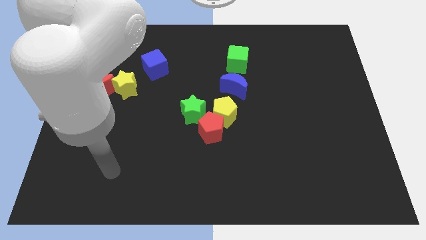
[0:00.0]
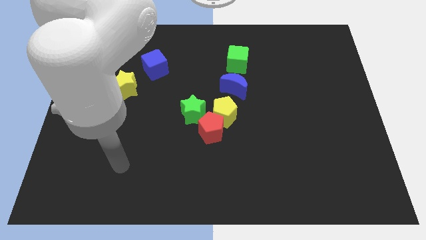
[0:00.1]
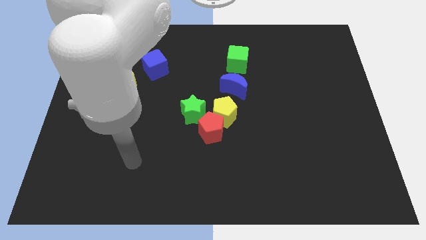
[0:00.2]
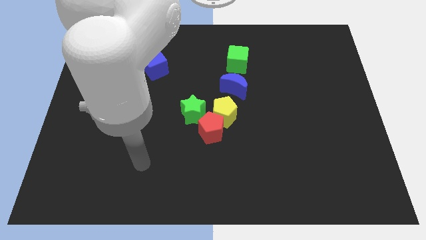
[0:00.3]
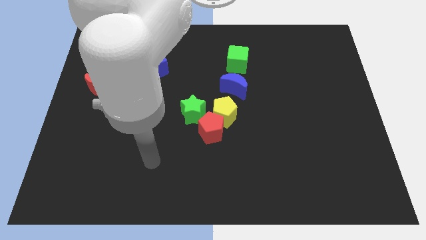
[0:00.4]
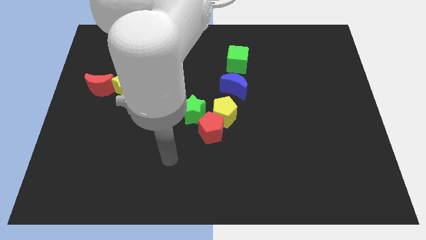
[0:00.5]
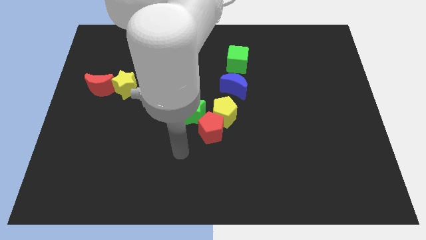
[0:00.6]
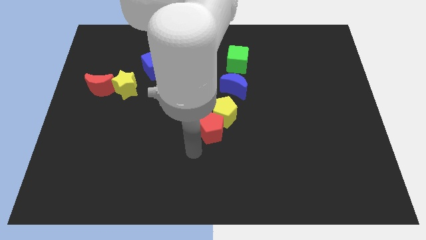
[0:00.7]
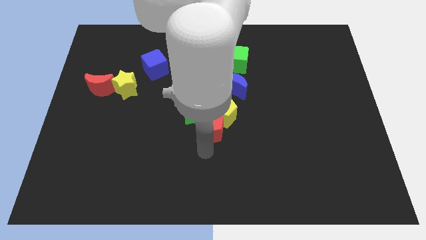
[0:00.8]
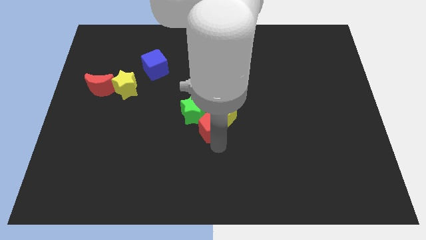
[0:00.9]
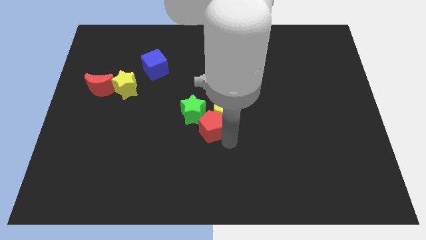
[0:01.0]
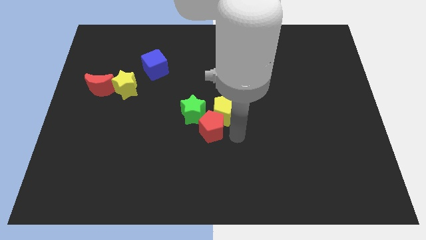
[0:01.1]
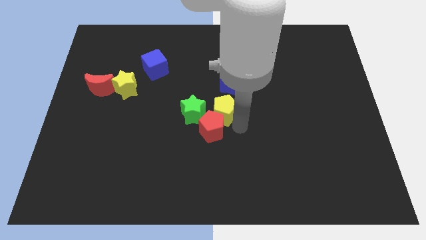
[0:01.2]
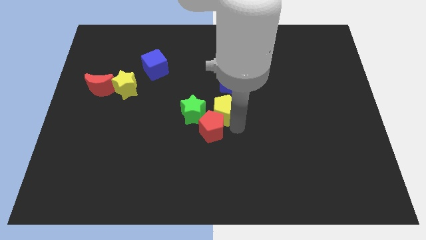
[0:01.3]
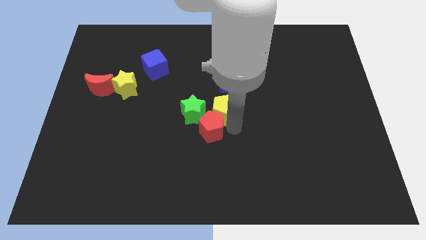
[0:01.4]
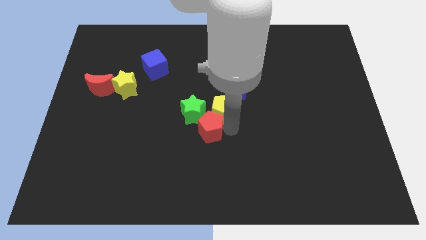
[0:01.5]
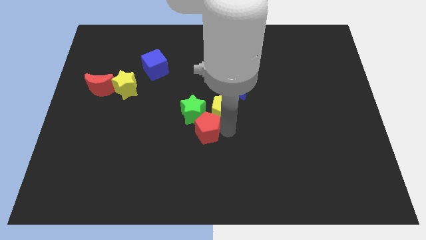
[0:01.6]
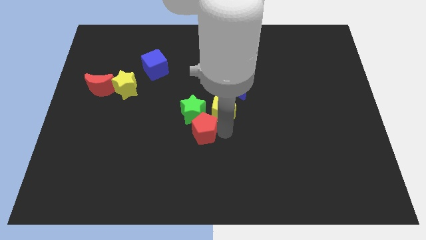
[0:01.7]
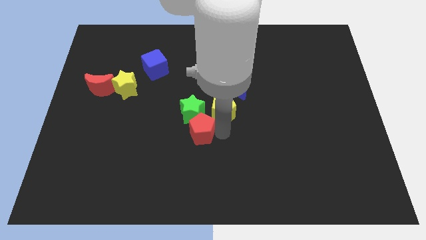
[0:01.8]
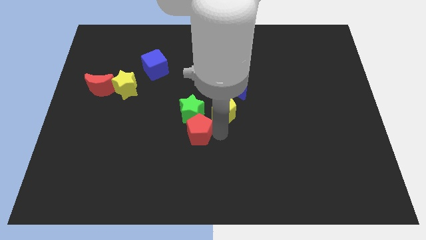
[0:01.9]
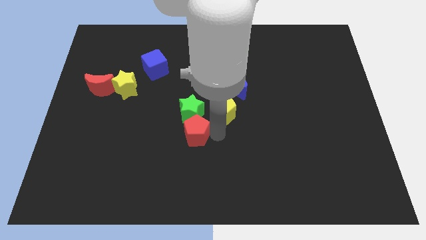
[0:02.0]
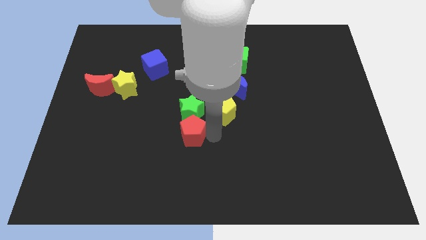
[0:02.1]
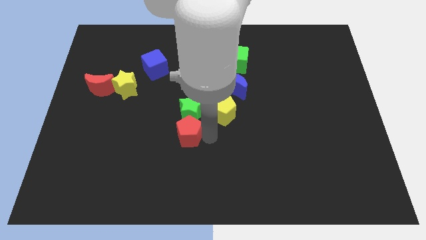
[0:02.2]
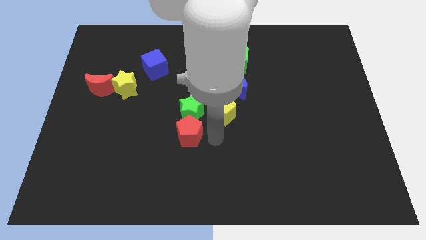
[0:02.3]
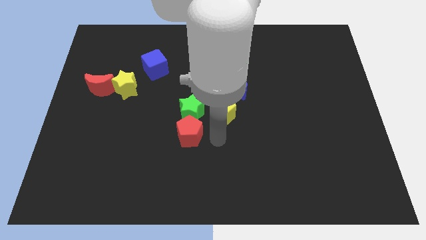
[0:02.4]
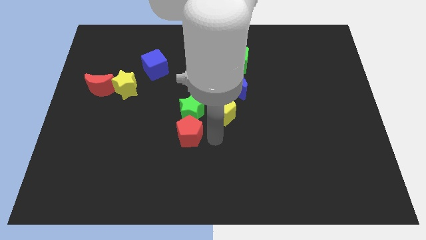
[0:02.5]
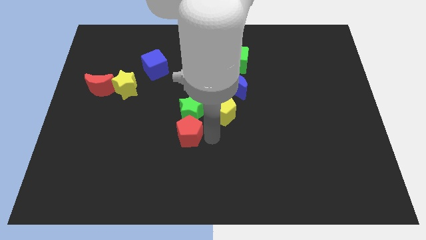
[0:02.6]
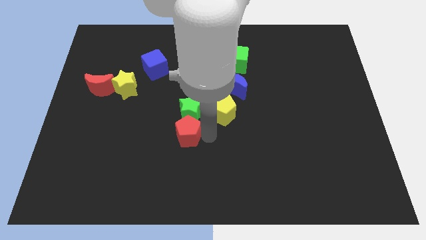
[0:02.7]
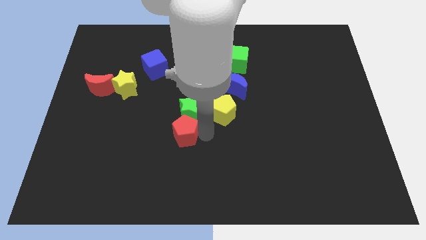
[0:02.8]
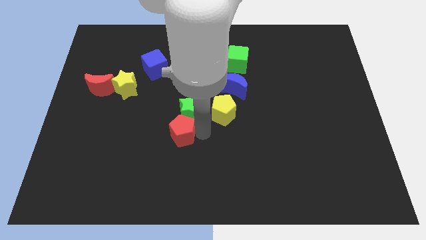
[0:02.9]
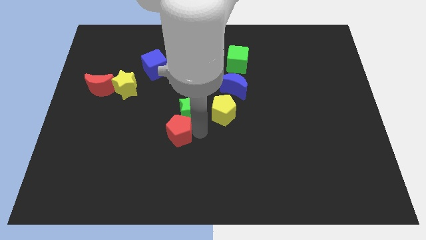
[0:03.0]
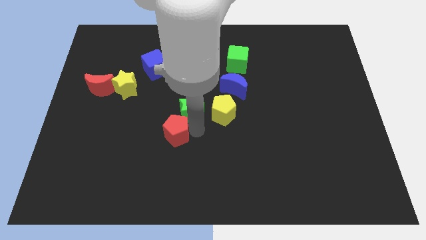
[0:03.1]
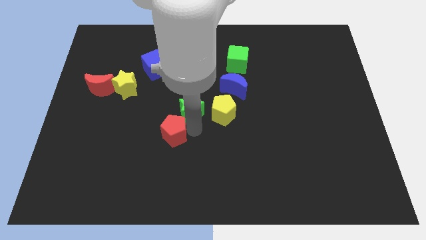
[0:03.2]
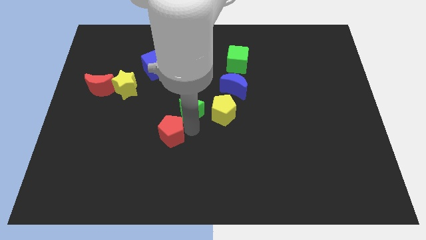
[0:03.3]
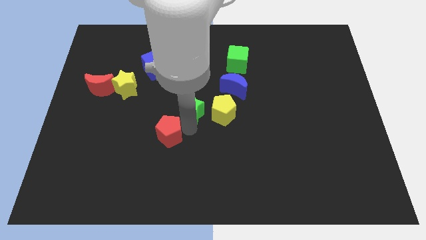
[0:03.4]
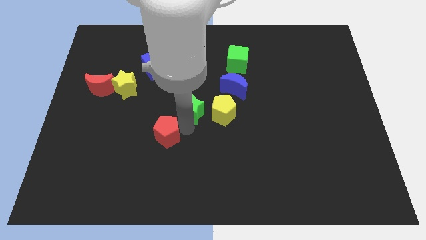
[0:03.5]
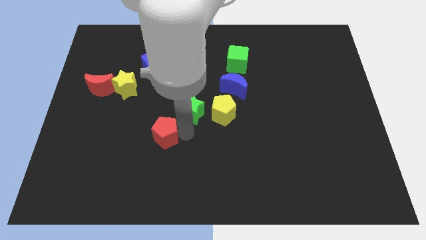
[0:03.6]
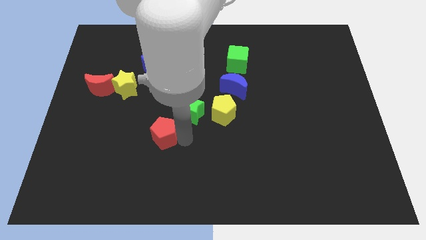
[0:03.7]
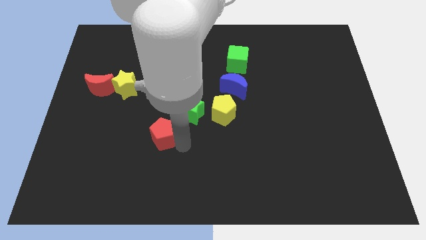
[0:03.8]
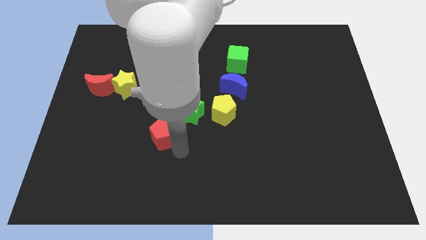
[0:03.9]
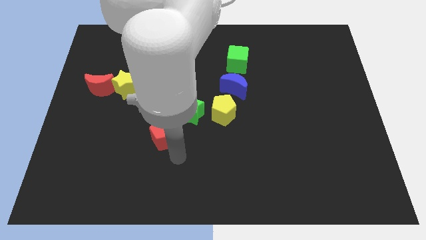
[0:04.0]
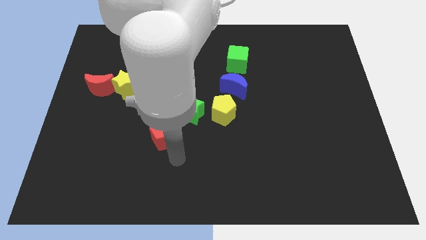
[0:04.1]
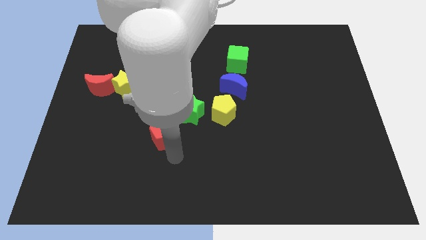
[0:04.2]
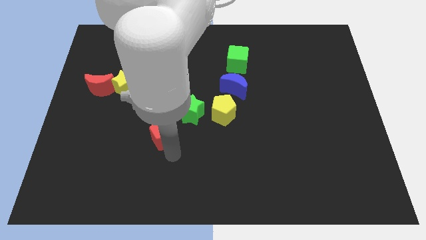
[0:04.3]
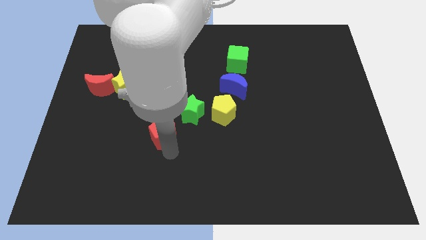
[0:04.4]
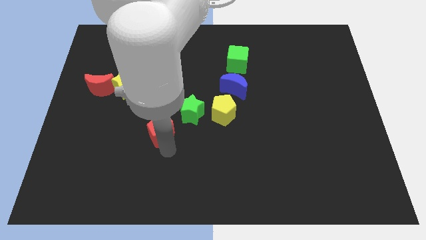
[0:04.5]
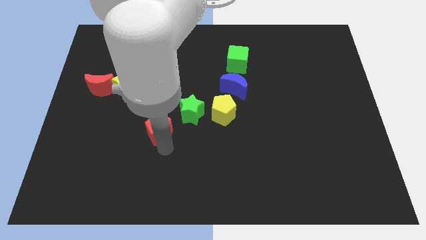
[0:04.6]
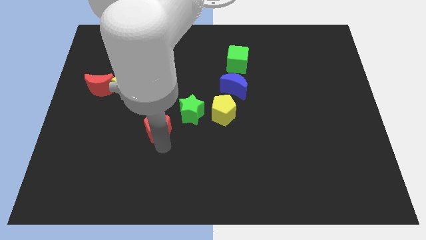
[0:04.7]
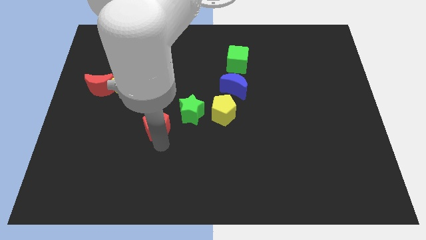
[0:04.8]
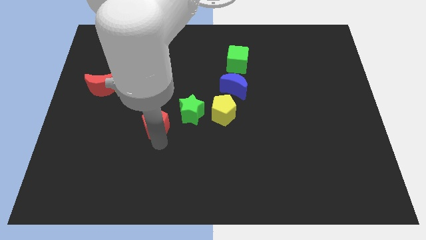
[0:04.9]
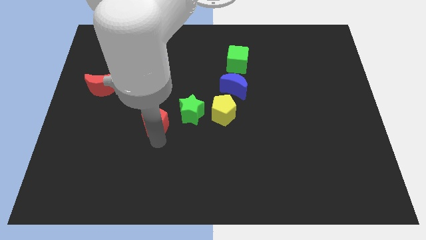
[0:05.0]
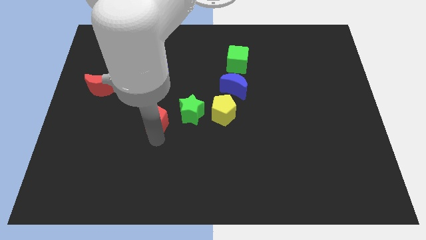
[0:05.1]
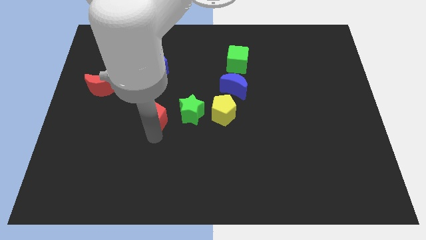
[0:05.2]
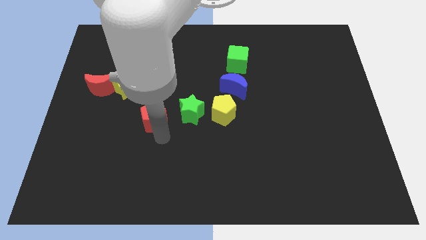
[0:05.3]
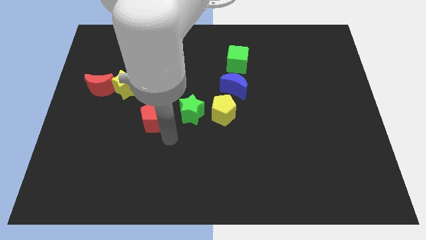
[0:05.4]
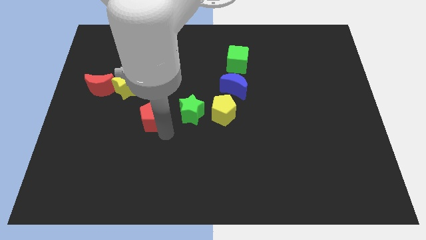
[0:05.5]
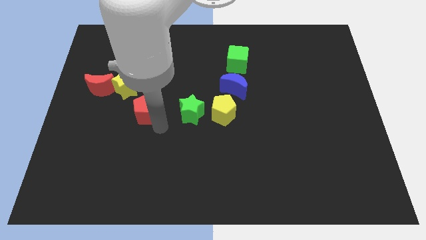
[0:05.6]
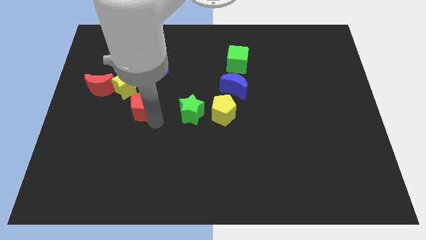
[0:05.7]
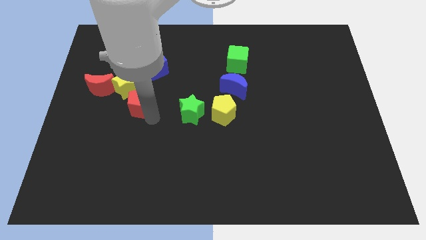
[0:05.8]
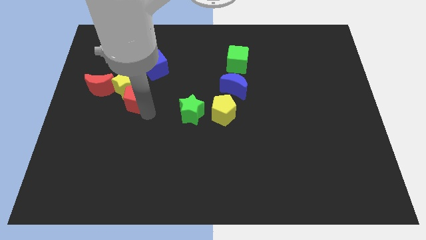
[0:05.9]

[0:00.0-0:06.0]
put the red pentagon close to the yellow star

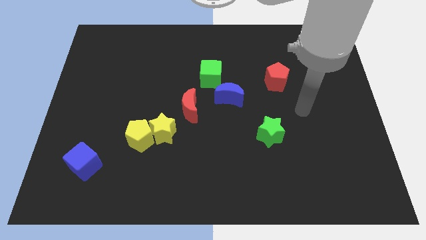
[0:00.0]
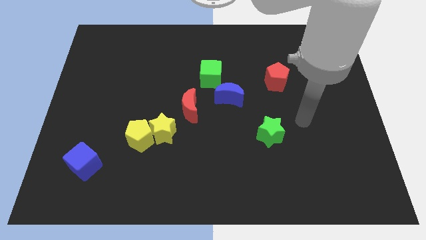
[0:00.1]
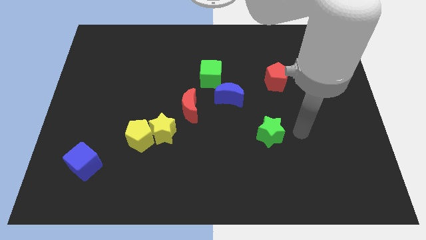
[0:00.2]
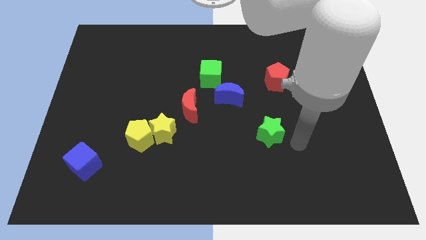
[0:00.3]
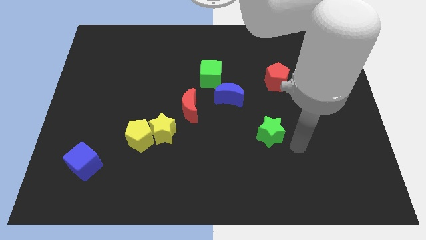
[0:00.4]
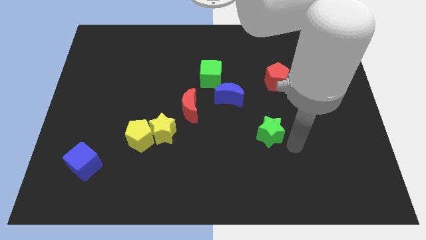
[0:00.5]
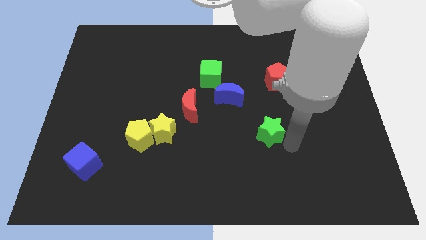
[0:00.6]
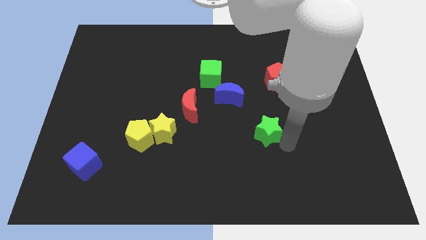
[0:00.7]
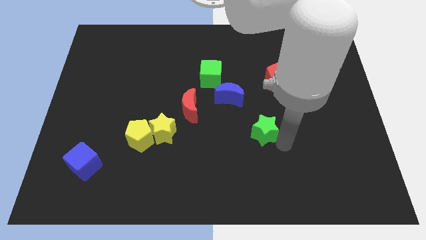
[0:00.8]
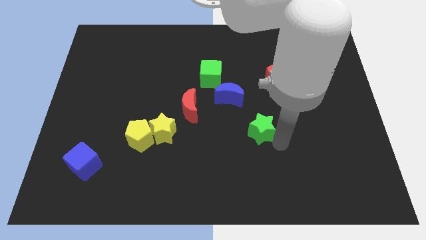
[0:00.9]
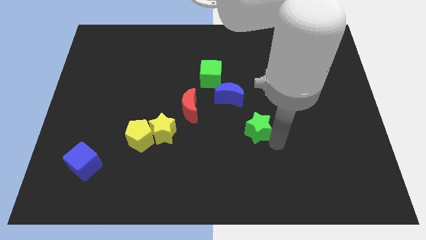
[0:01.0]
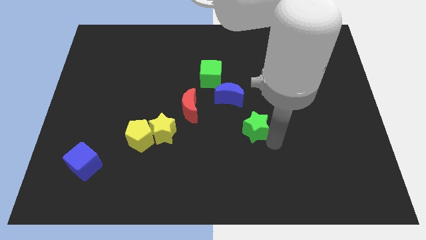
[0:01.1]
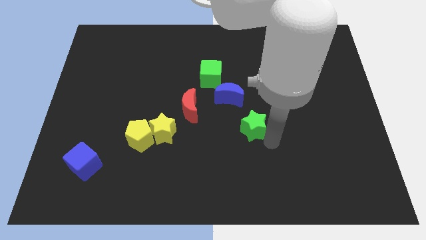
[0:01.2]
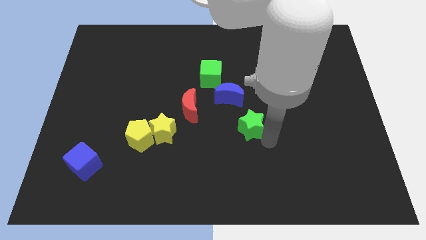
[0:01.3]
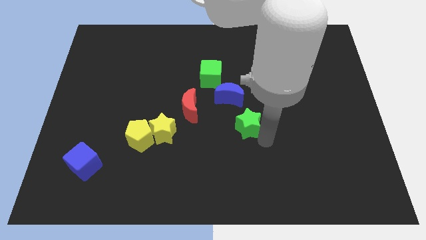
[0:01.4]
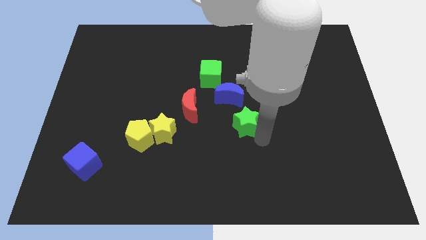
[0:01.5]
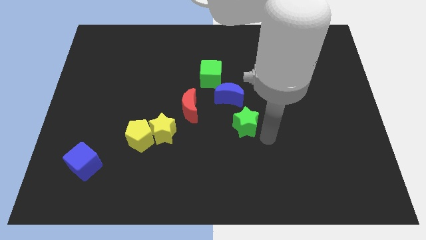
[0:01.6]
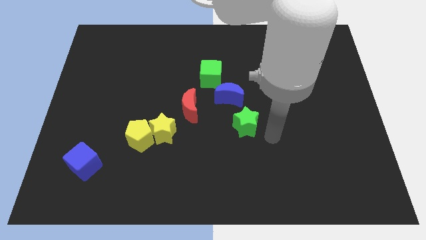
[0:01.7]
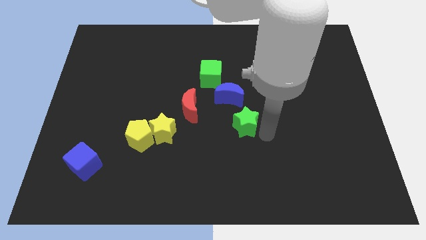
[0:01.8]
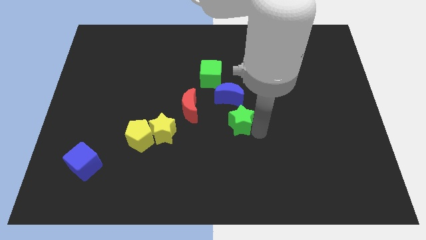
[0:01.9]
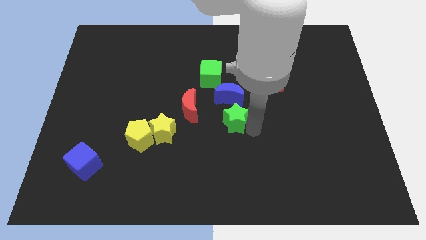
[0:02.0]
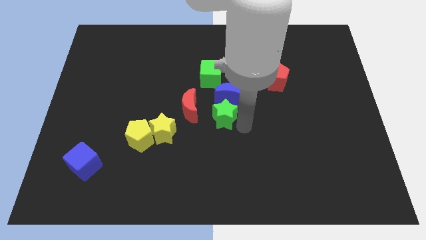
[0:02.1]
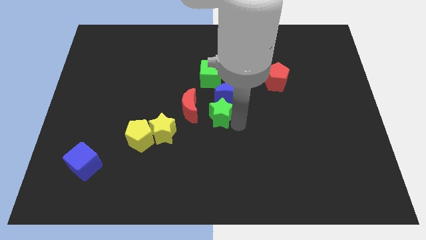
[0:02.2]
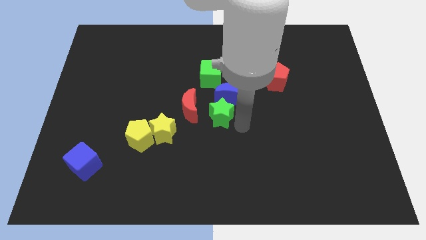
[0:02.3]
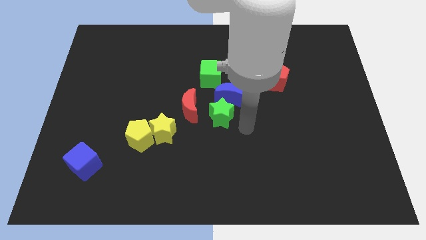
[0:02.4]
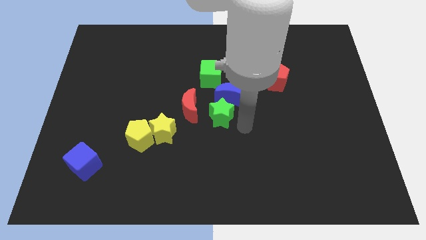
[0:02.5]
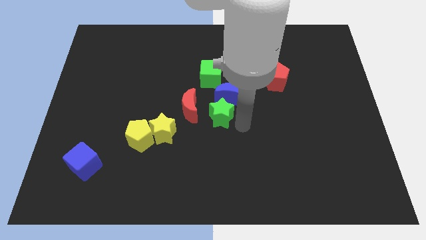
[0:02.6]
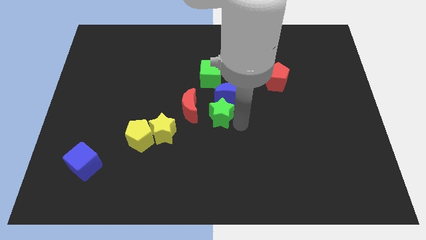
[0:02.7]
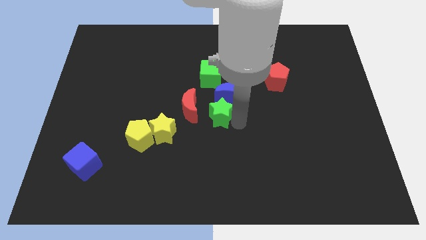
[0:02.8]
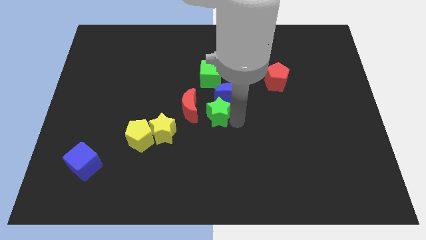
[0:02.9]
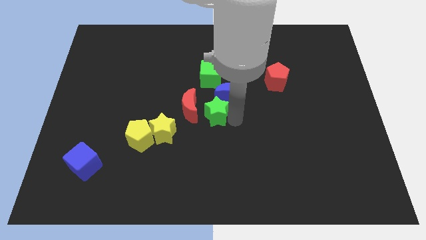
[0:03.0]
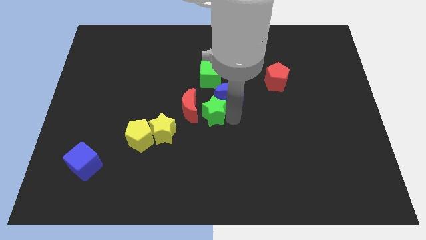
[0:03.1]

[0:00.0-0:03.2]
push the green star to the red moon
